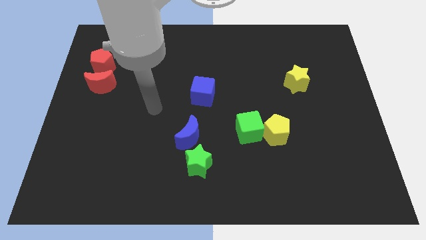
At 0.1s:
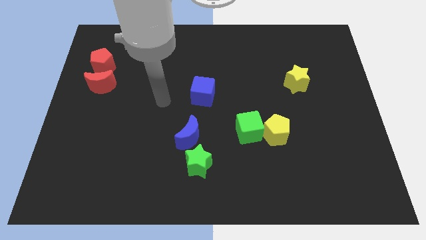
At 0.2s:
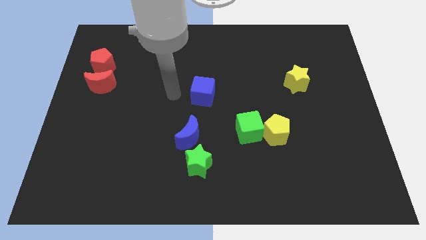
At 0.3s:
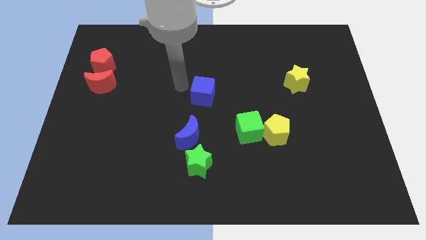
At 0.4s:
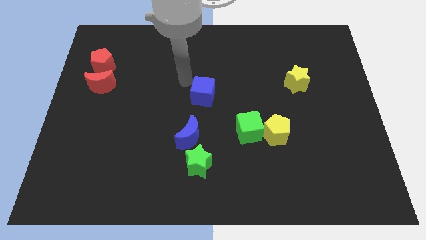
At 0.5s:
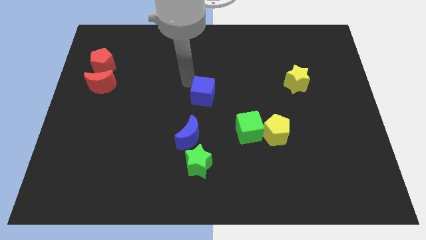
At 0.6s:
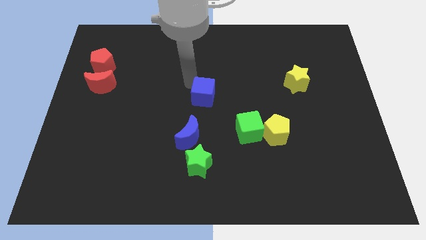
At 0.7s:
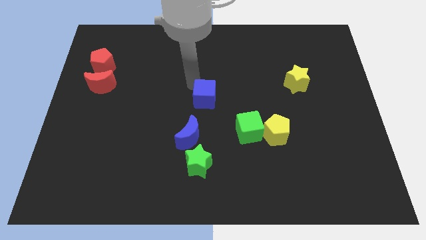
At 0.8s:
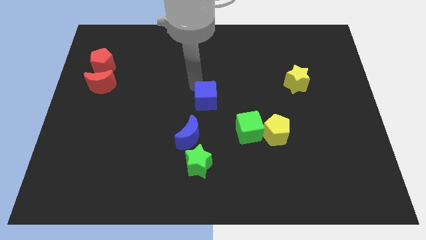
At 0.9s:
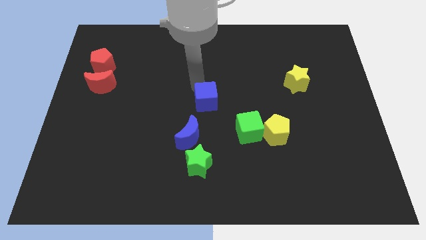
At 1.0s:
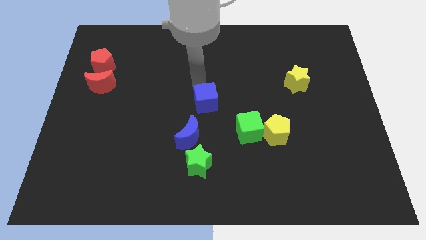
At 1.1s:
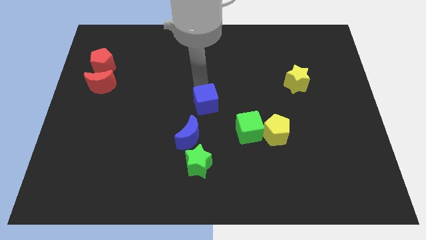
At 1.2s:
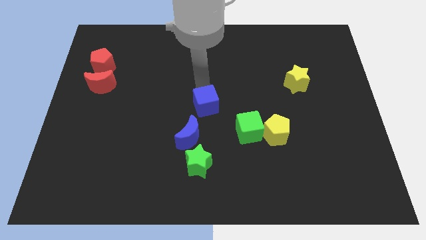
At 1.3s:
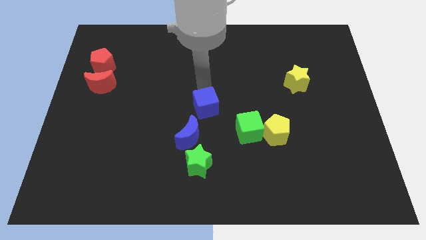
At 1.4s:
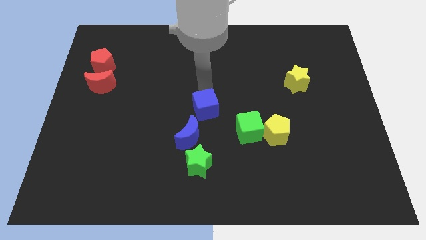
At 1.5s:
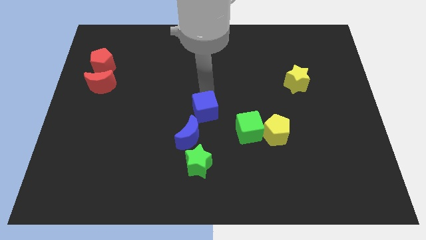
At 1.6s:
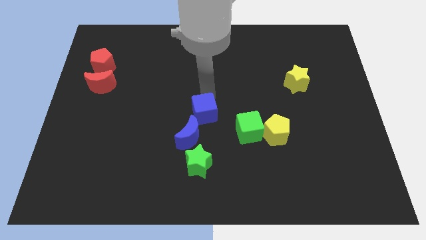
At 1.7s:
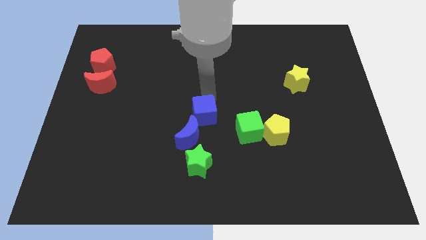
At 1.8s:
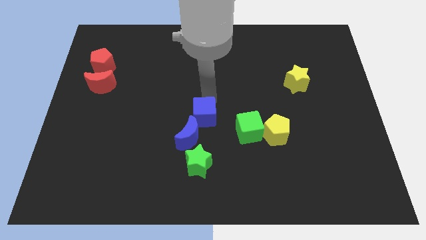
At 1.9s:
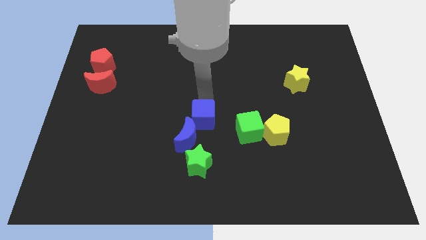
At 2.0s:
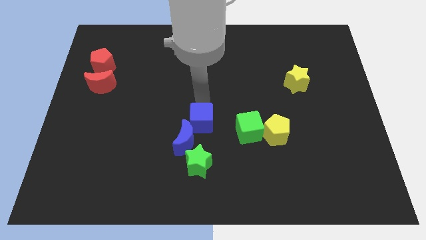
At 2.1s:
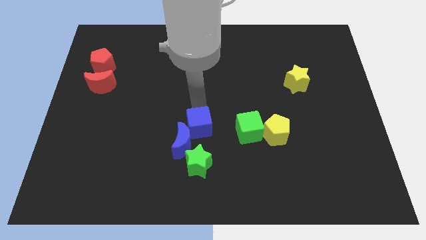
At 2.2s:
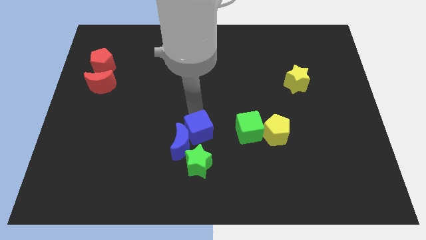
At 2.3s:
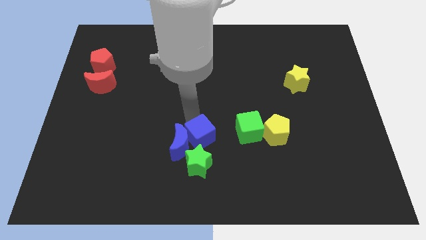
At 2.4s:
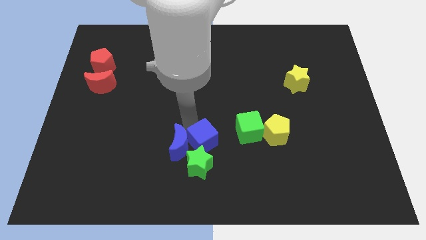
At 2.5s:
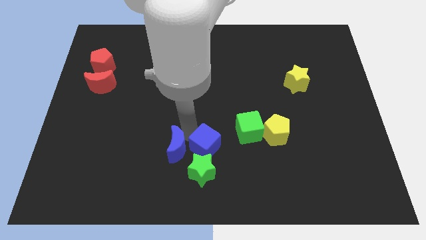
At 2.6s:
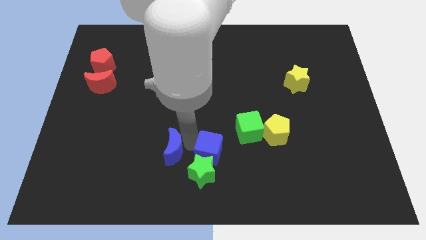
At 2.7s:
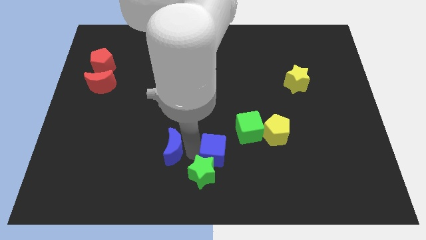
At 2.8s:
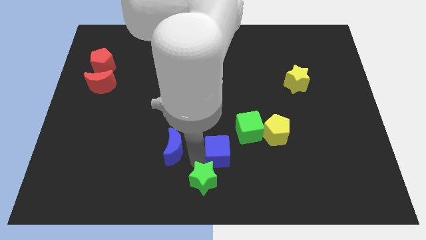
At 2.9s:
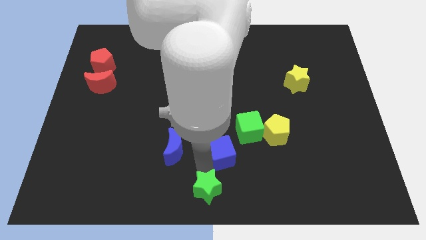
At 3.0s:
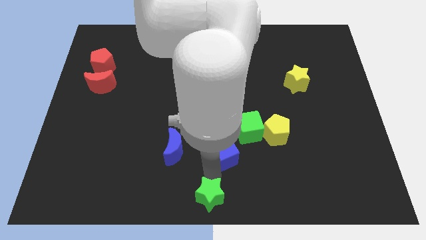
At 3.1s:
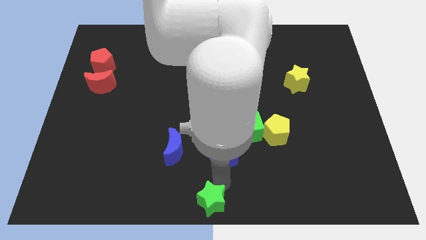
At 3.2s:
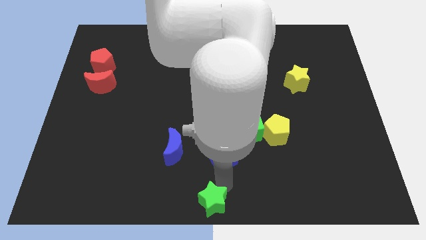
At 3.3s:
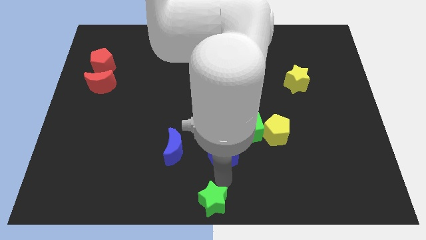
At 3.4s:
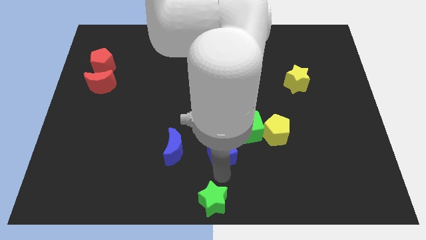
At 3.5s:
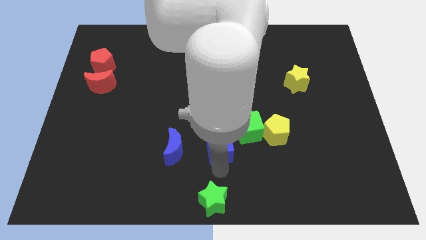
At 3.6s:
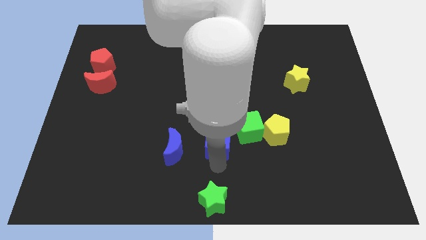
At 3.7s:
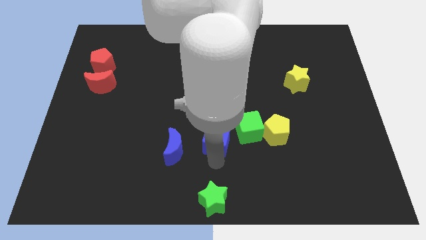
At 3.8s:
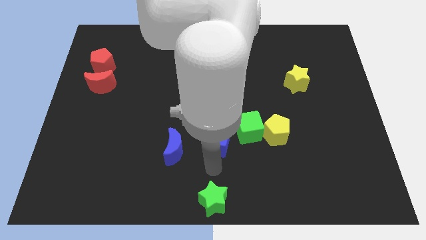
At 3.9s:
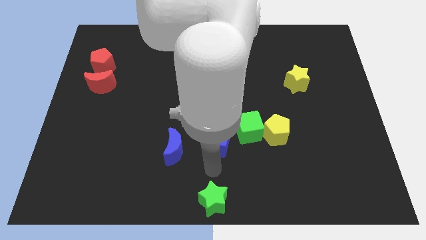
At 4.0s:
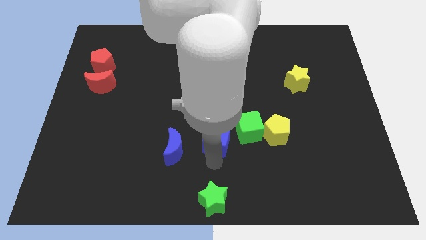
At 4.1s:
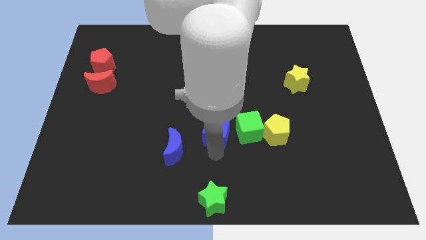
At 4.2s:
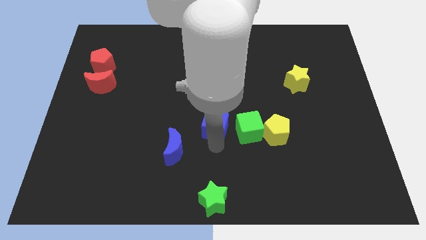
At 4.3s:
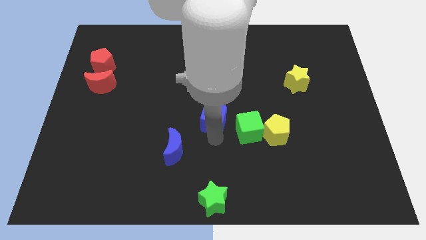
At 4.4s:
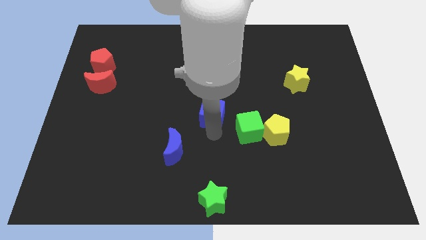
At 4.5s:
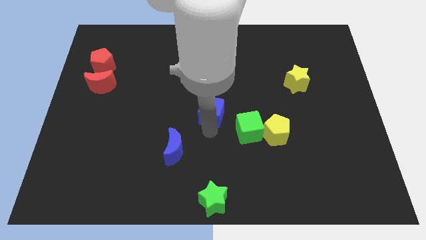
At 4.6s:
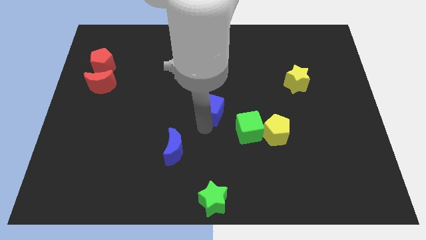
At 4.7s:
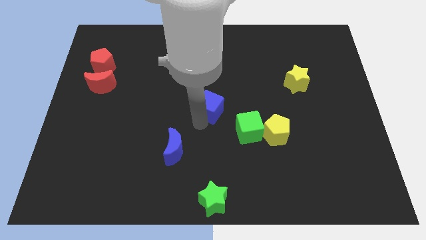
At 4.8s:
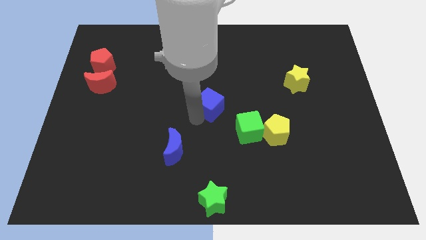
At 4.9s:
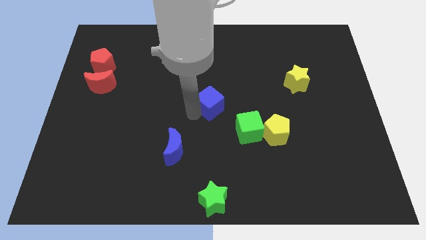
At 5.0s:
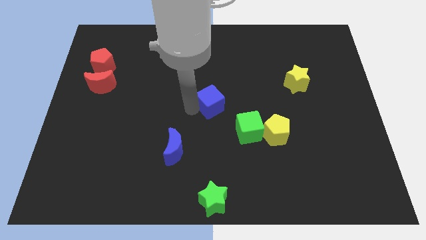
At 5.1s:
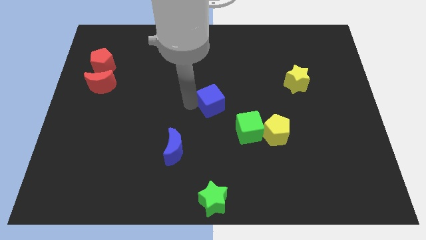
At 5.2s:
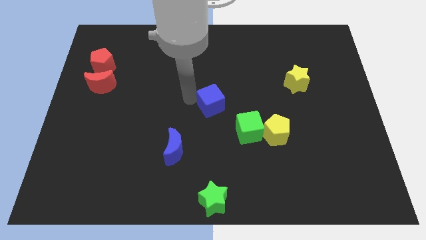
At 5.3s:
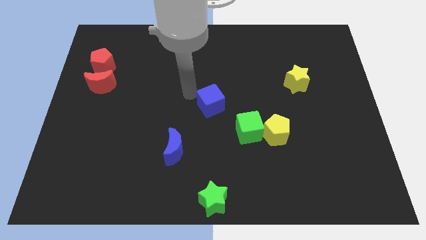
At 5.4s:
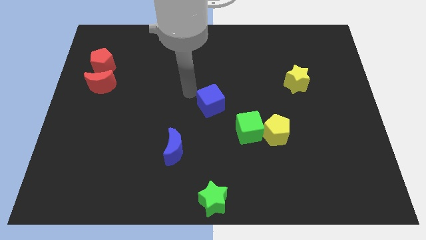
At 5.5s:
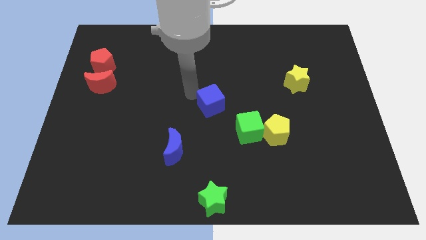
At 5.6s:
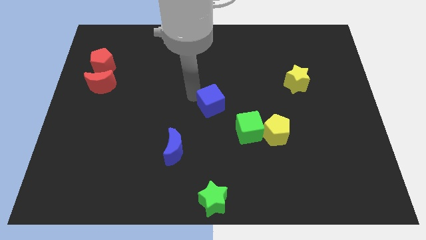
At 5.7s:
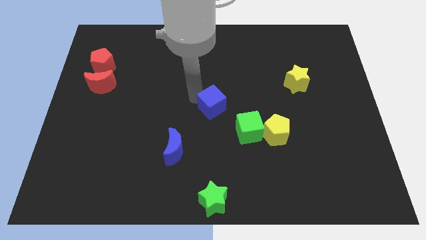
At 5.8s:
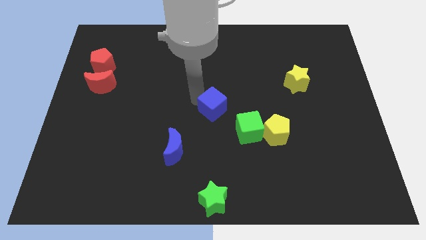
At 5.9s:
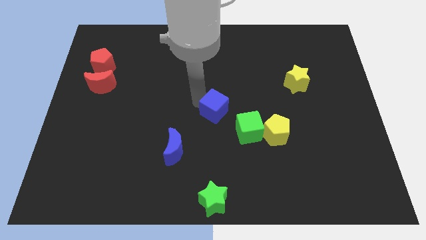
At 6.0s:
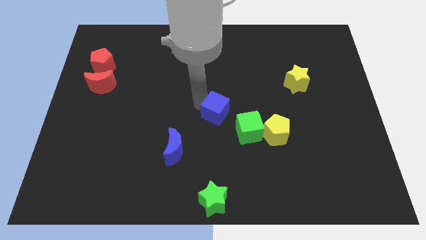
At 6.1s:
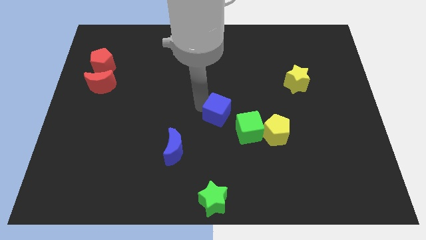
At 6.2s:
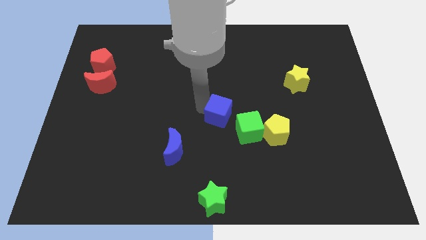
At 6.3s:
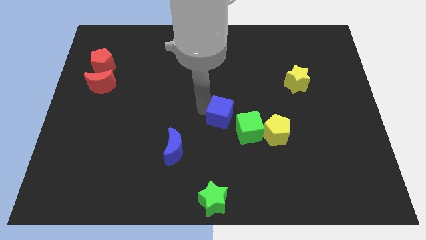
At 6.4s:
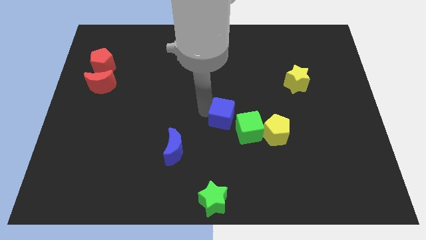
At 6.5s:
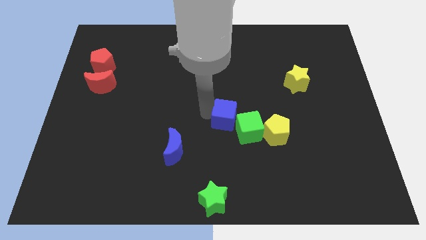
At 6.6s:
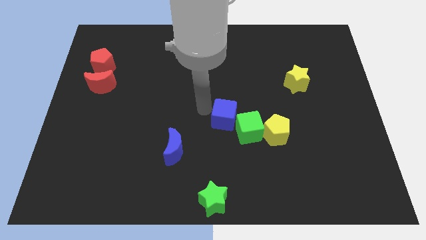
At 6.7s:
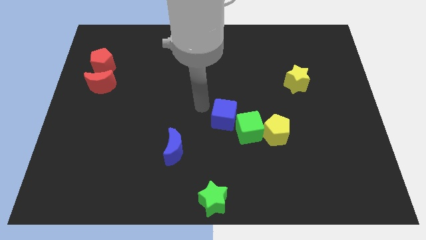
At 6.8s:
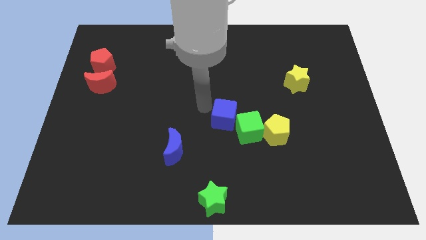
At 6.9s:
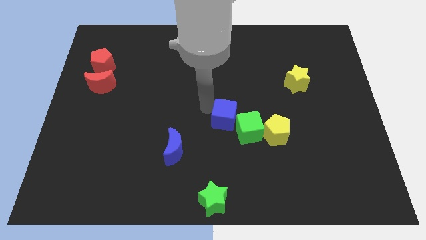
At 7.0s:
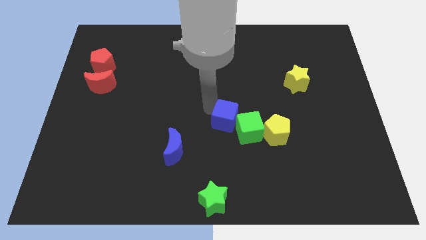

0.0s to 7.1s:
slide the blue cube to the green cube
